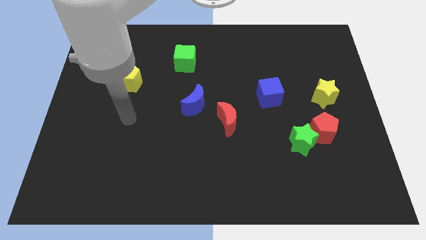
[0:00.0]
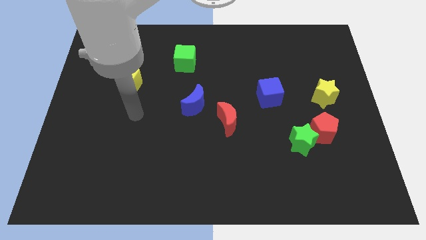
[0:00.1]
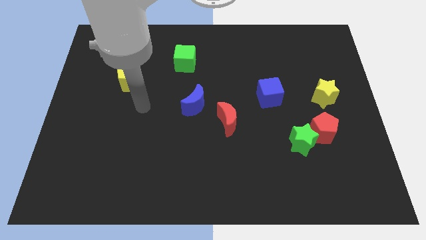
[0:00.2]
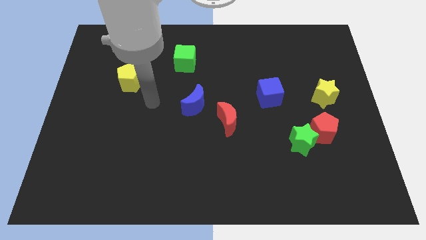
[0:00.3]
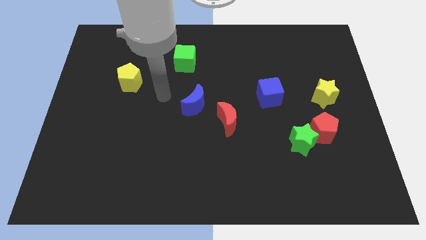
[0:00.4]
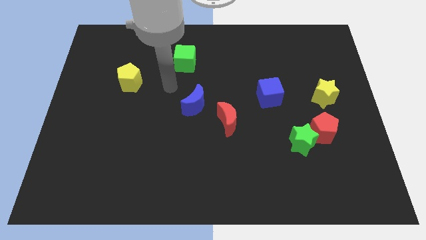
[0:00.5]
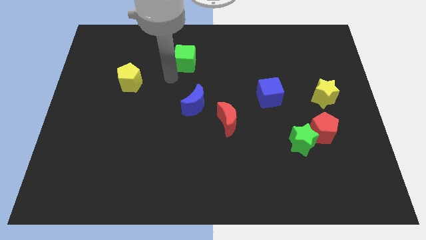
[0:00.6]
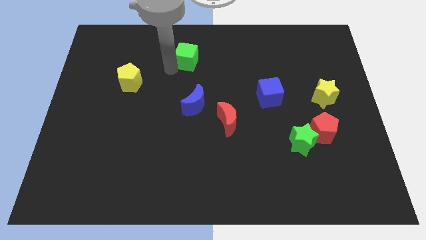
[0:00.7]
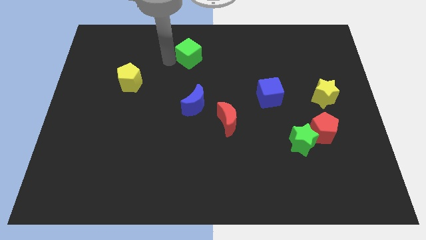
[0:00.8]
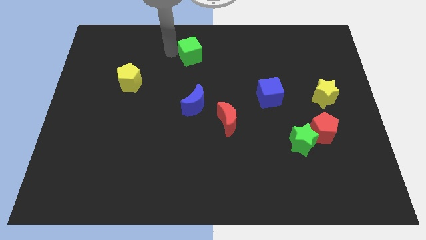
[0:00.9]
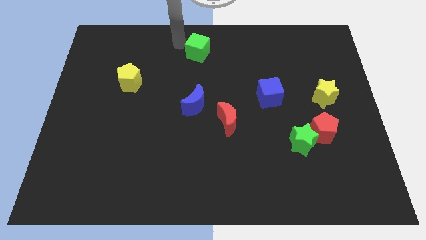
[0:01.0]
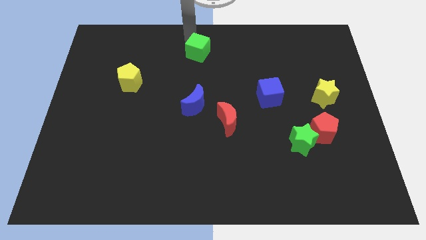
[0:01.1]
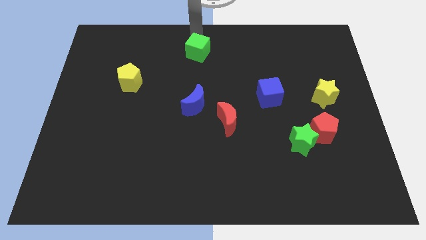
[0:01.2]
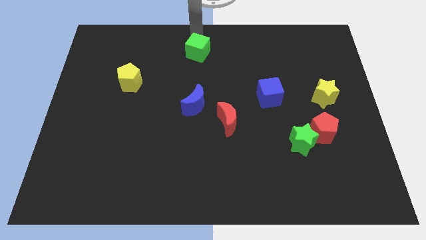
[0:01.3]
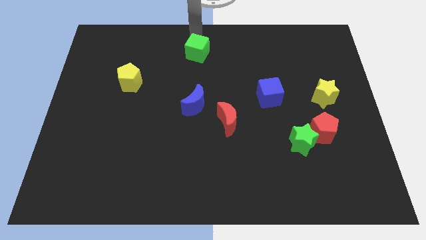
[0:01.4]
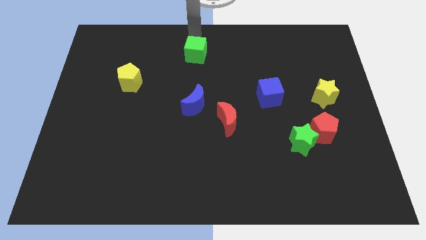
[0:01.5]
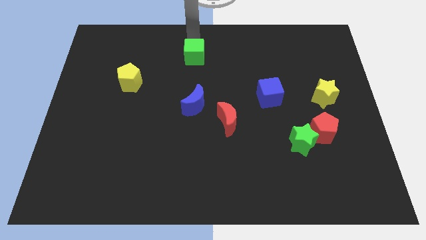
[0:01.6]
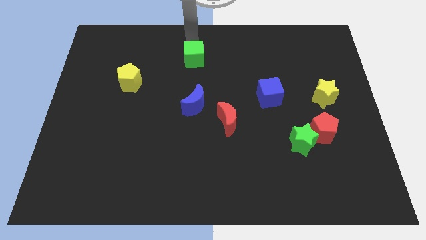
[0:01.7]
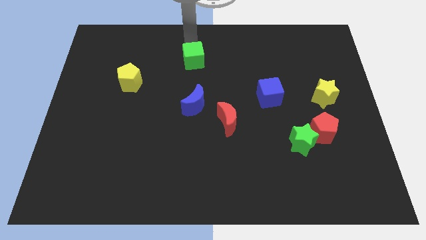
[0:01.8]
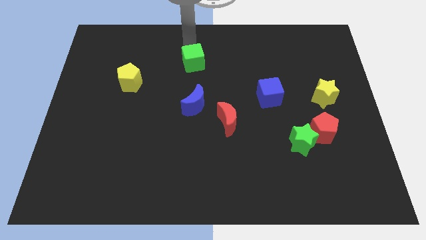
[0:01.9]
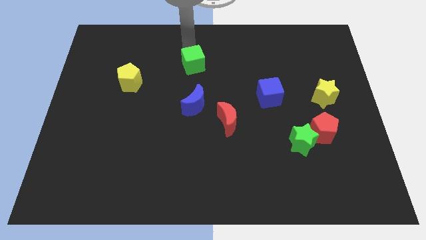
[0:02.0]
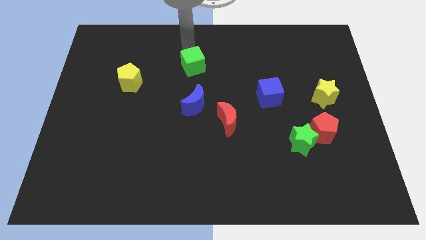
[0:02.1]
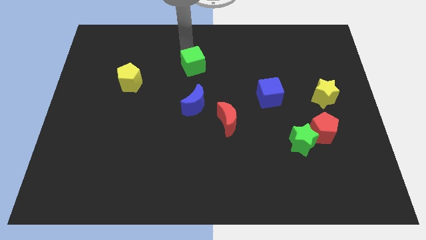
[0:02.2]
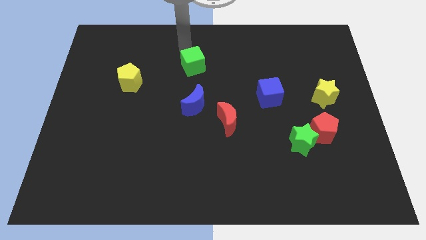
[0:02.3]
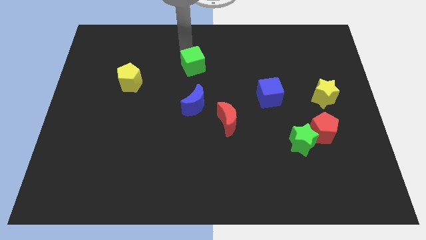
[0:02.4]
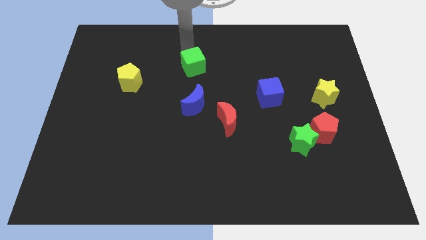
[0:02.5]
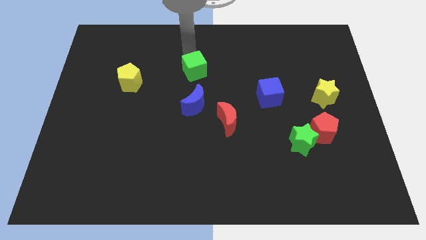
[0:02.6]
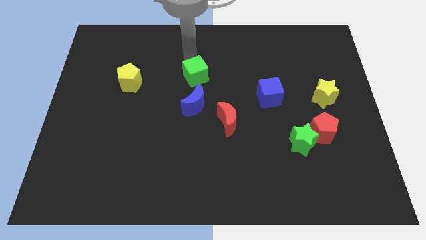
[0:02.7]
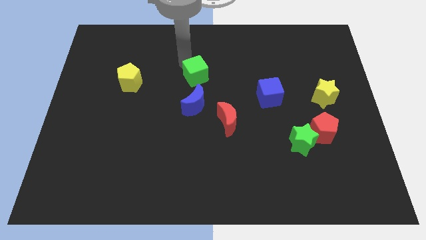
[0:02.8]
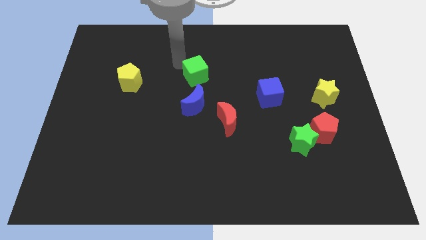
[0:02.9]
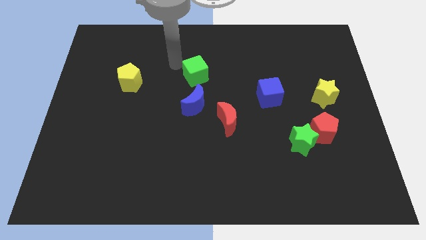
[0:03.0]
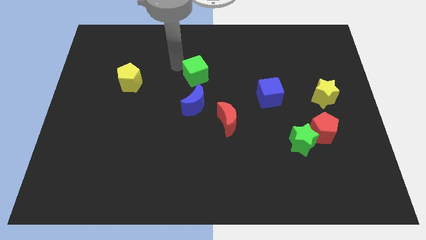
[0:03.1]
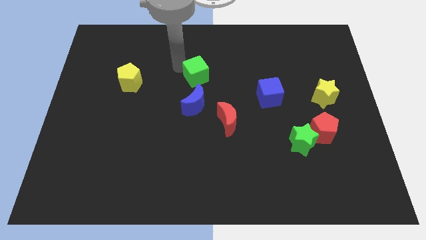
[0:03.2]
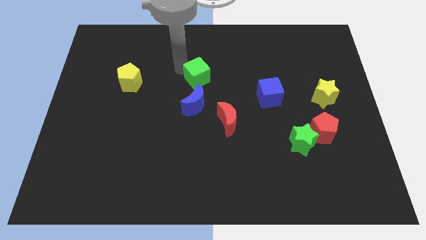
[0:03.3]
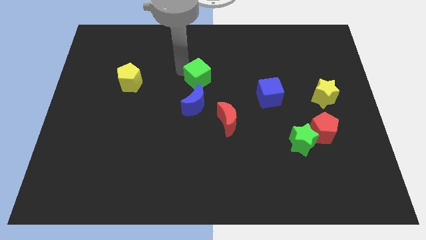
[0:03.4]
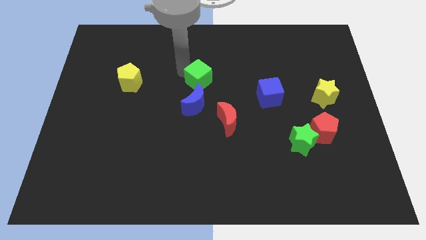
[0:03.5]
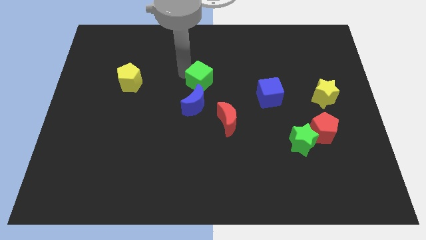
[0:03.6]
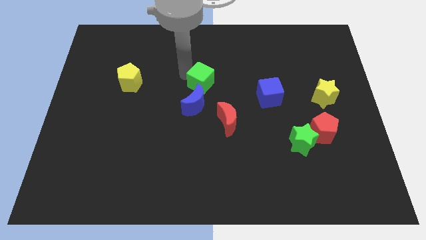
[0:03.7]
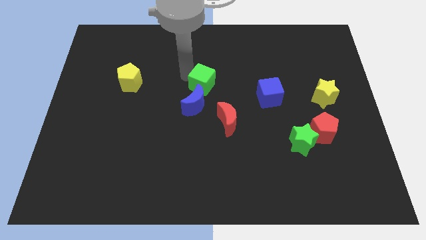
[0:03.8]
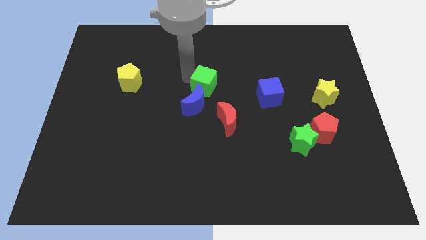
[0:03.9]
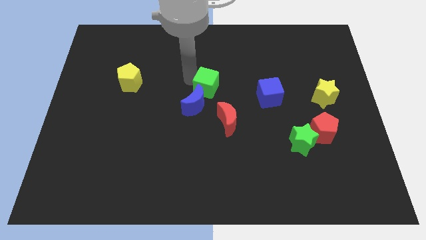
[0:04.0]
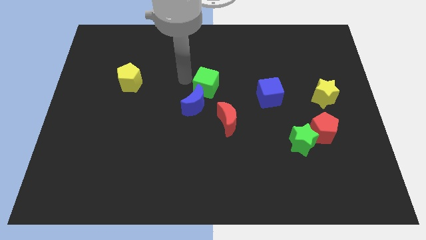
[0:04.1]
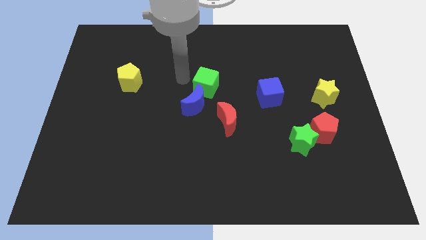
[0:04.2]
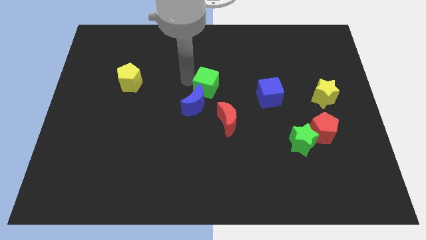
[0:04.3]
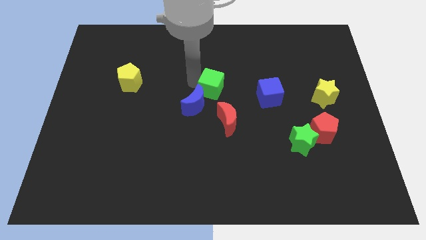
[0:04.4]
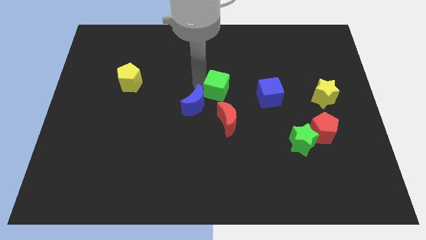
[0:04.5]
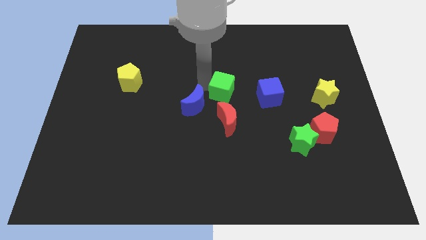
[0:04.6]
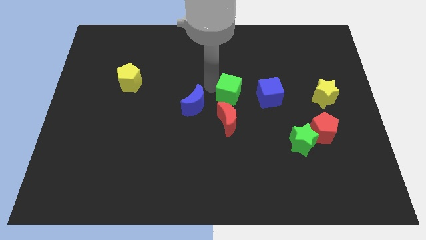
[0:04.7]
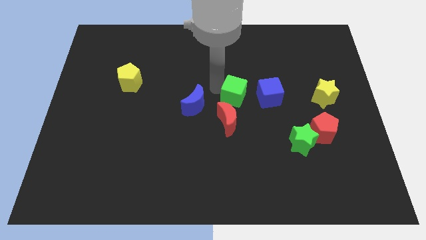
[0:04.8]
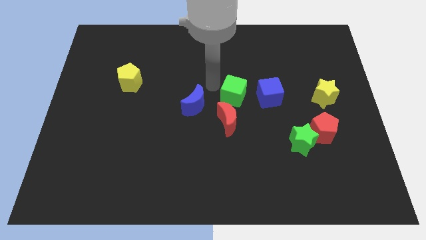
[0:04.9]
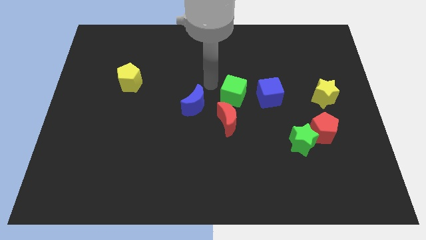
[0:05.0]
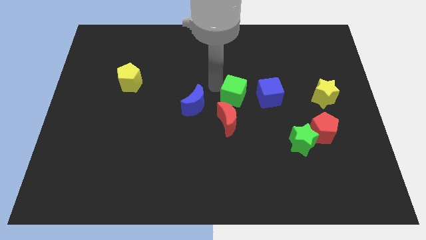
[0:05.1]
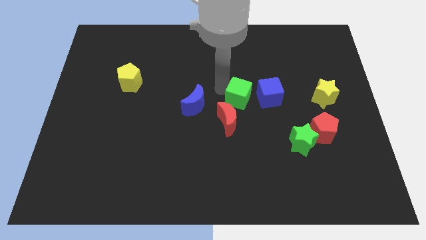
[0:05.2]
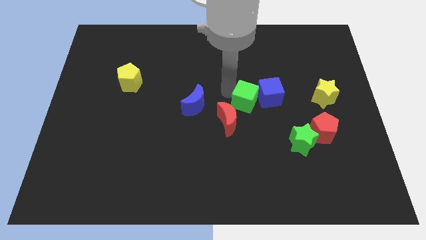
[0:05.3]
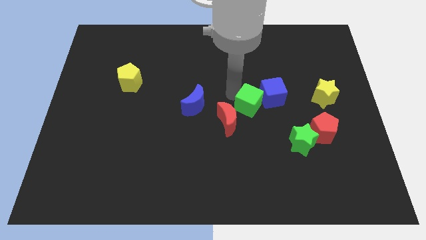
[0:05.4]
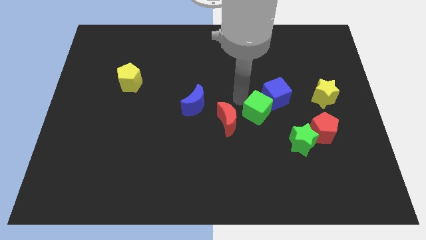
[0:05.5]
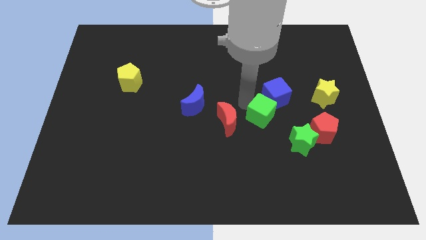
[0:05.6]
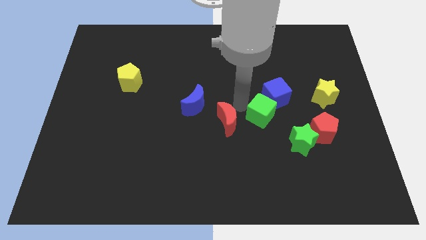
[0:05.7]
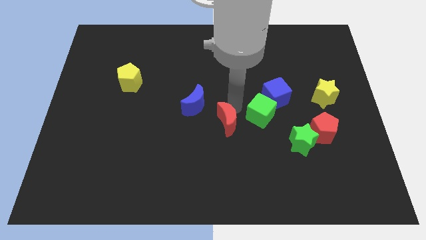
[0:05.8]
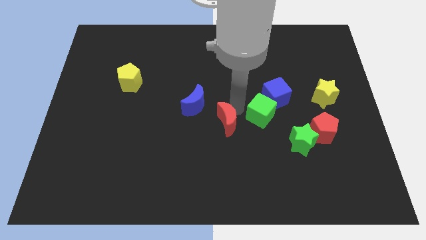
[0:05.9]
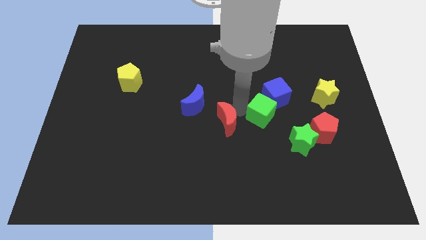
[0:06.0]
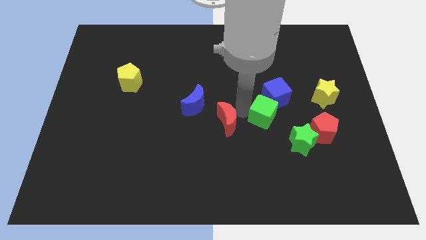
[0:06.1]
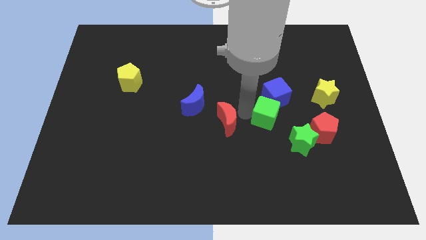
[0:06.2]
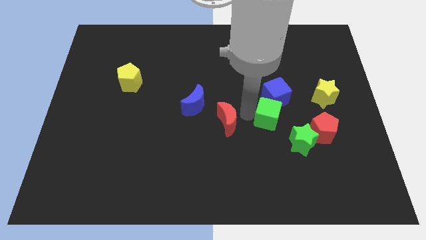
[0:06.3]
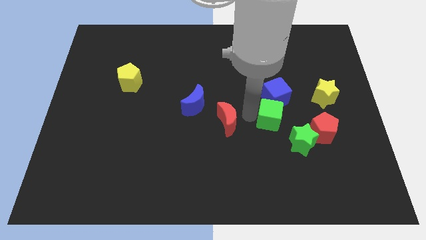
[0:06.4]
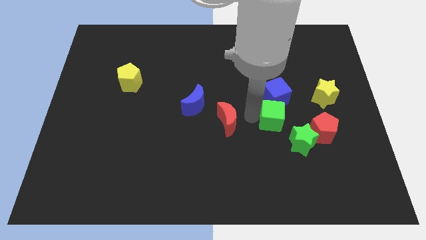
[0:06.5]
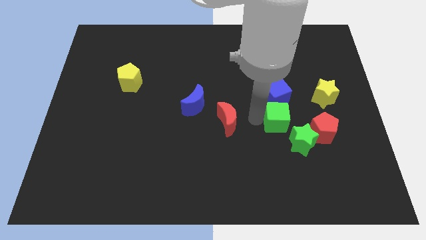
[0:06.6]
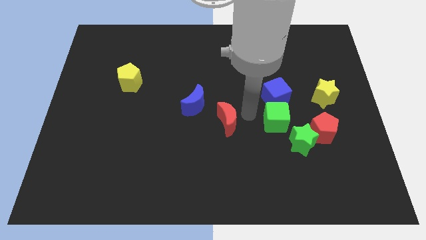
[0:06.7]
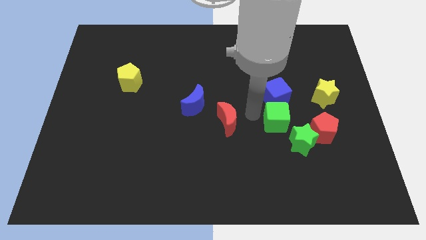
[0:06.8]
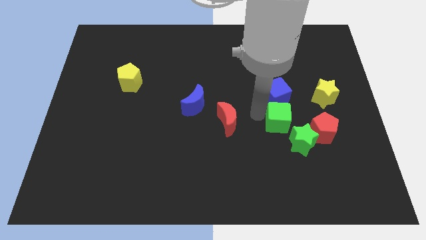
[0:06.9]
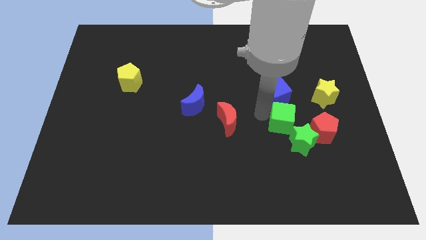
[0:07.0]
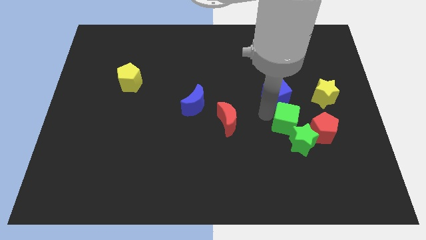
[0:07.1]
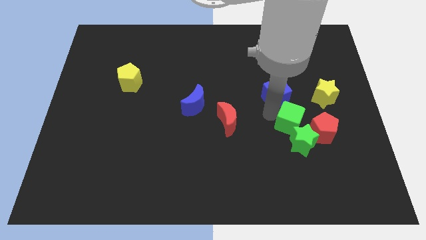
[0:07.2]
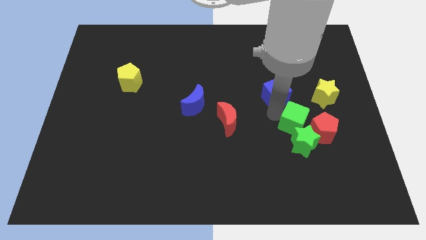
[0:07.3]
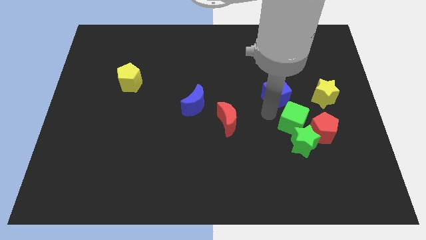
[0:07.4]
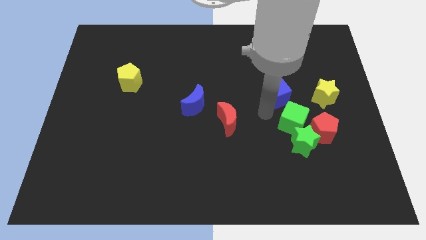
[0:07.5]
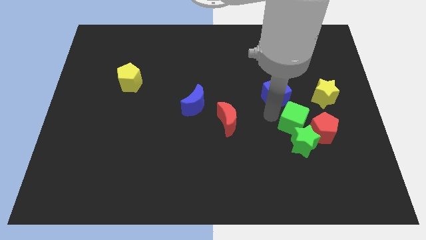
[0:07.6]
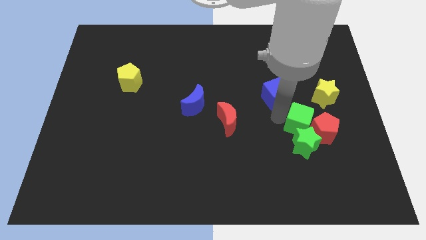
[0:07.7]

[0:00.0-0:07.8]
put the green cube next to the red pentagon
